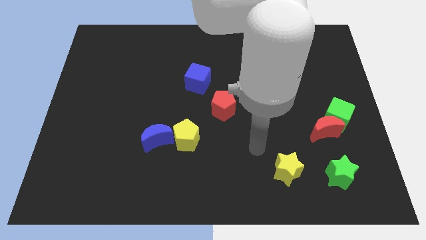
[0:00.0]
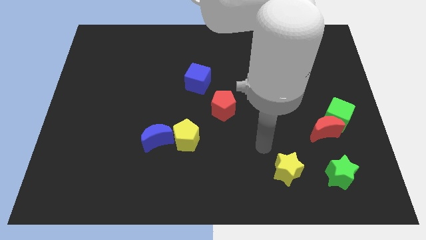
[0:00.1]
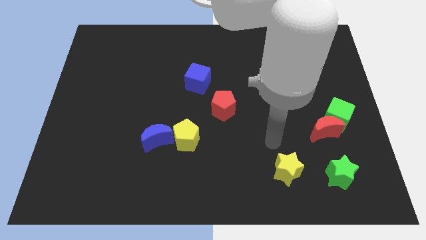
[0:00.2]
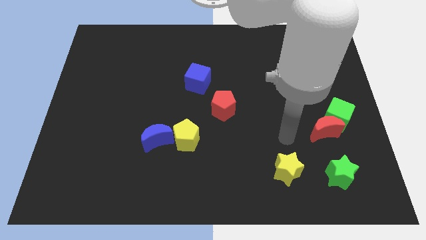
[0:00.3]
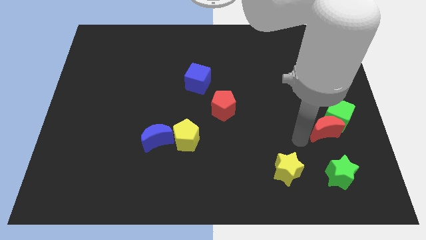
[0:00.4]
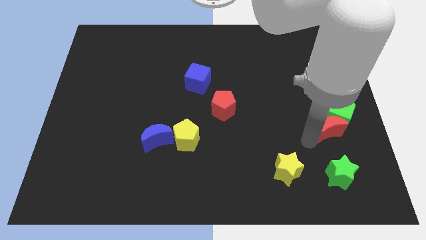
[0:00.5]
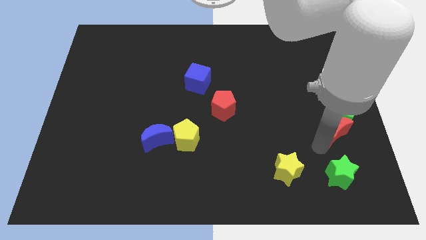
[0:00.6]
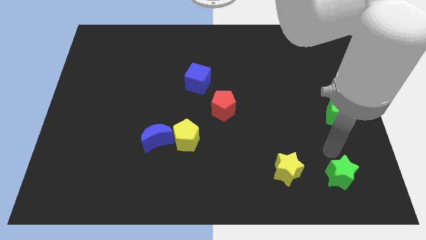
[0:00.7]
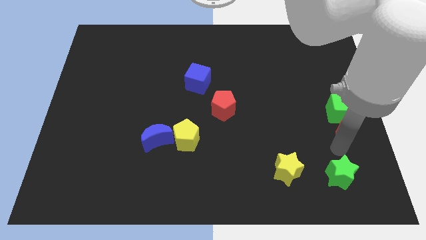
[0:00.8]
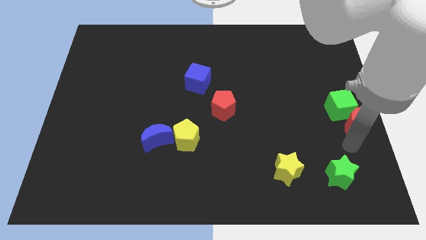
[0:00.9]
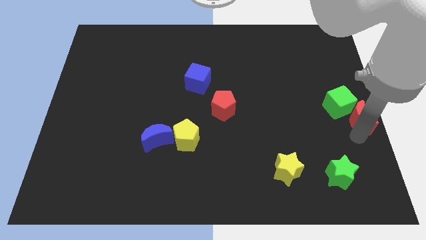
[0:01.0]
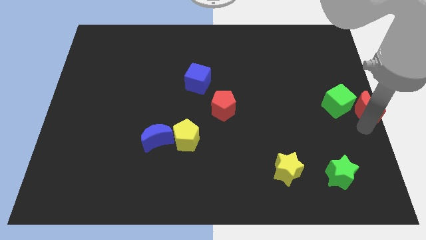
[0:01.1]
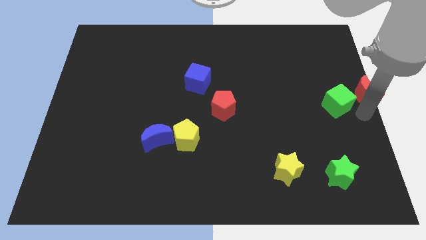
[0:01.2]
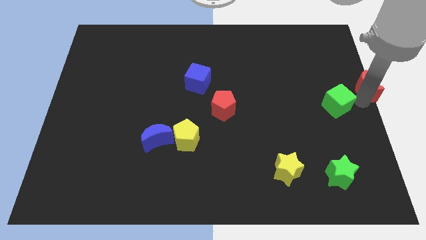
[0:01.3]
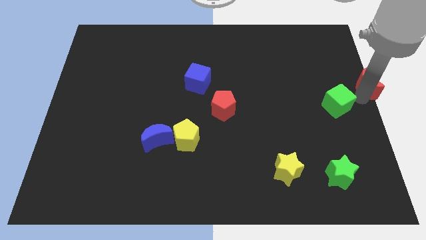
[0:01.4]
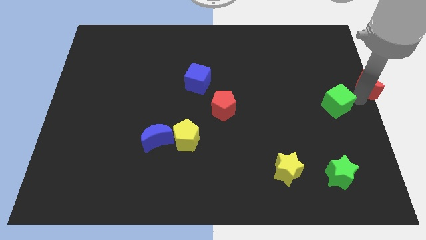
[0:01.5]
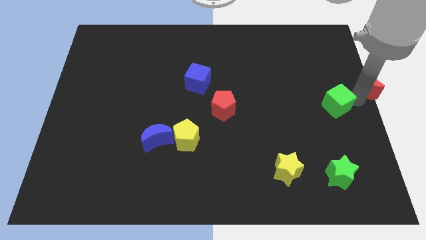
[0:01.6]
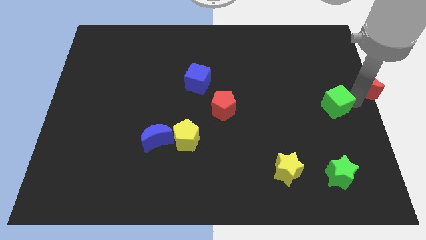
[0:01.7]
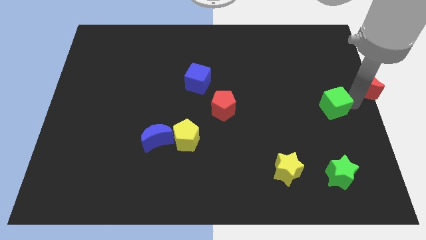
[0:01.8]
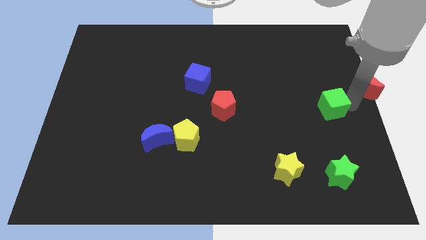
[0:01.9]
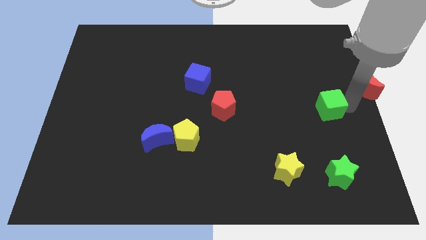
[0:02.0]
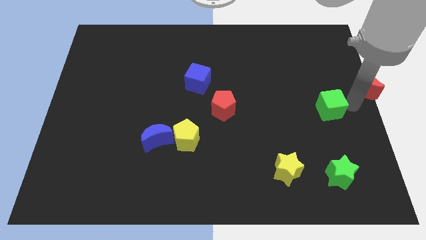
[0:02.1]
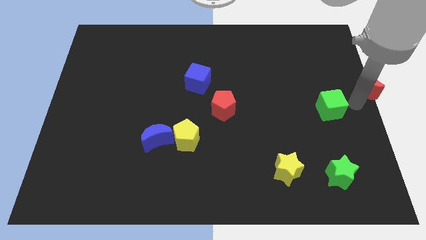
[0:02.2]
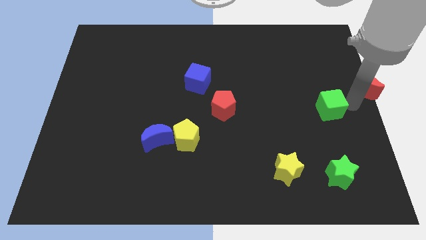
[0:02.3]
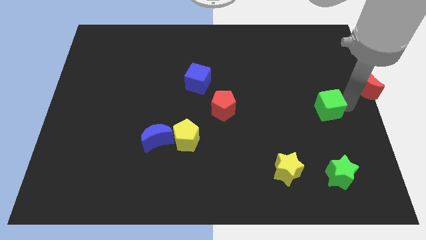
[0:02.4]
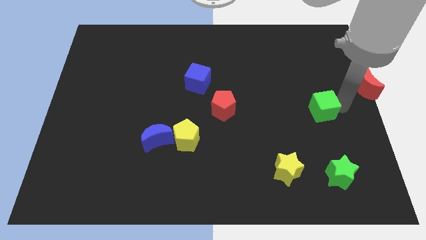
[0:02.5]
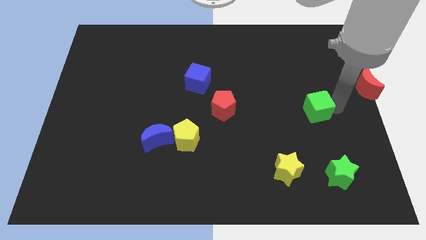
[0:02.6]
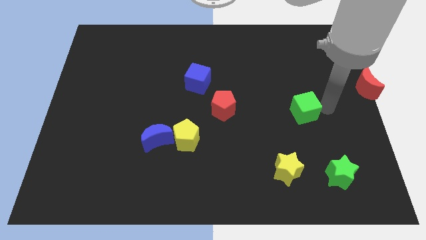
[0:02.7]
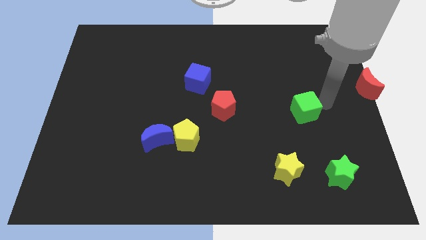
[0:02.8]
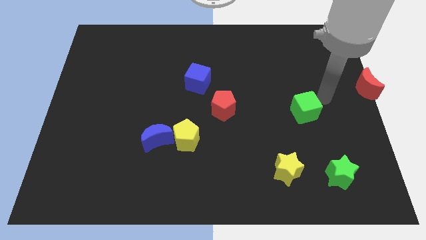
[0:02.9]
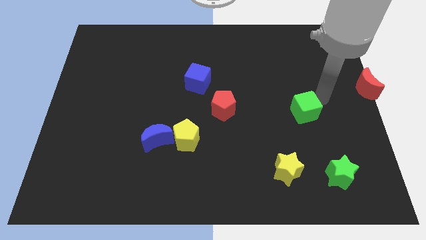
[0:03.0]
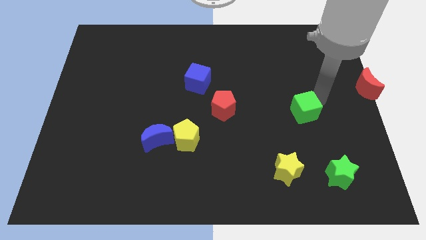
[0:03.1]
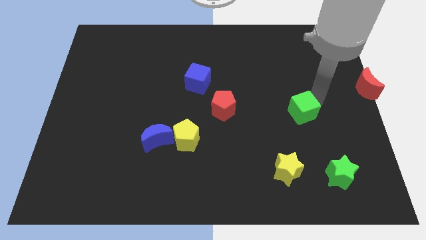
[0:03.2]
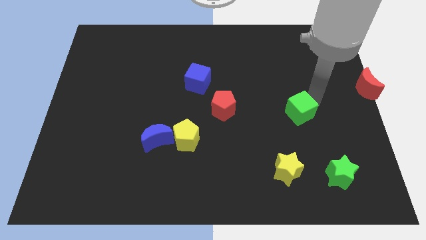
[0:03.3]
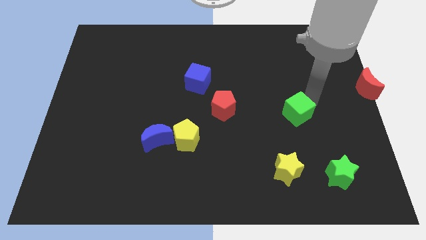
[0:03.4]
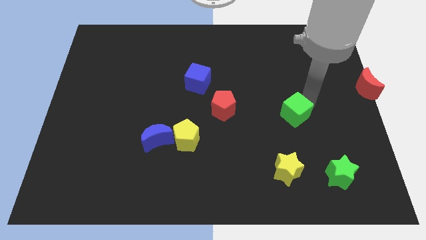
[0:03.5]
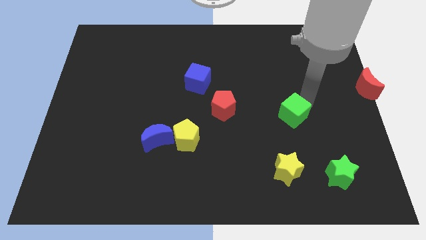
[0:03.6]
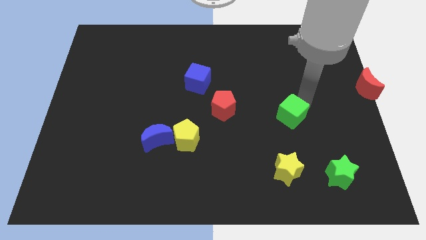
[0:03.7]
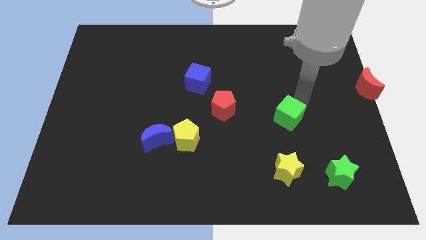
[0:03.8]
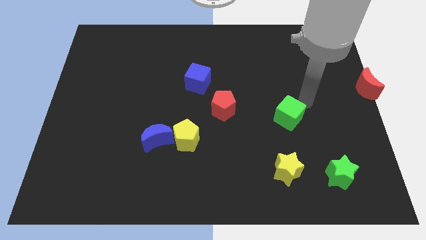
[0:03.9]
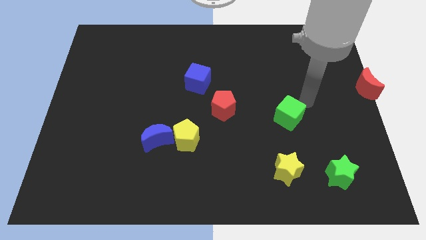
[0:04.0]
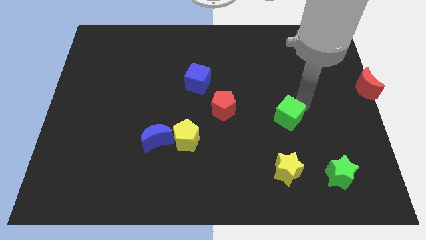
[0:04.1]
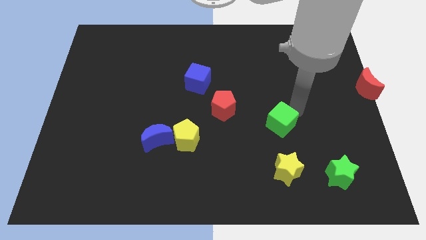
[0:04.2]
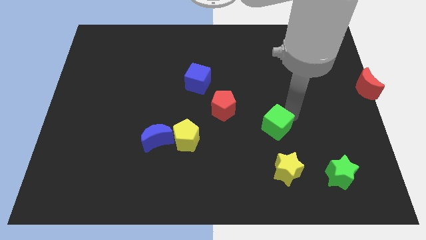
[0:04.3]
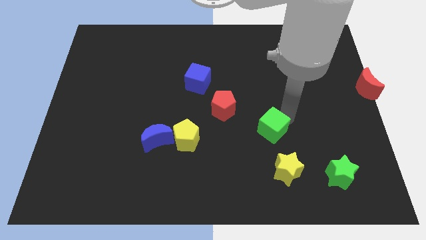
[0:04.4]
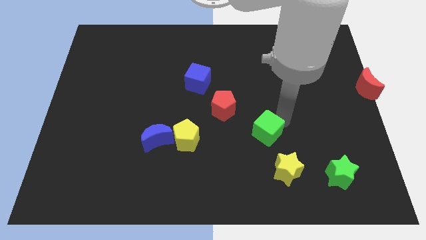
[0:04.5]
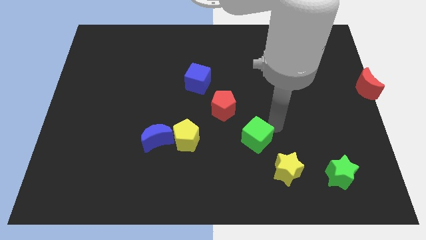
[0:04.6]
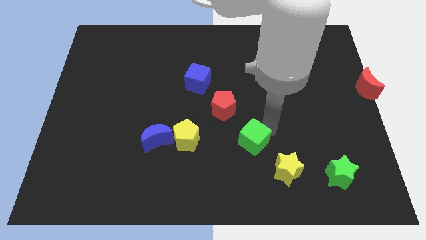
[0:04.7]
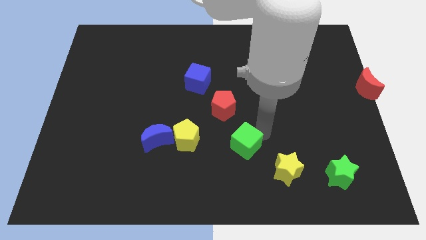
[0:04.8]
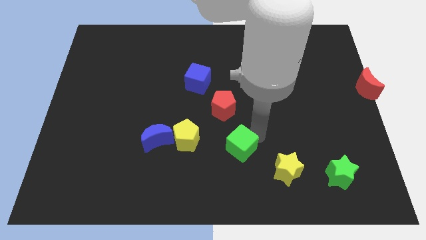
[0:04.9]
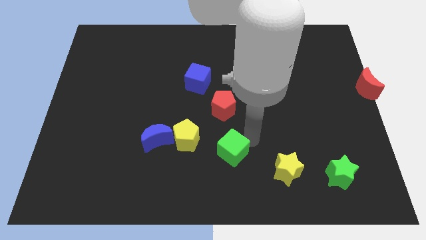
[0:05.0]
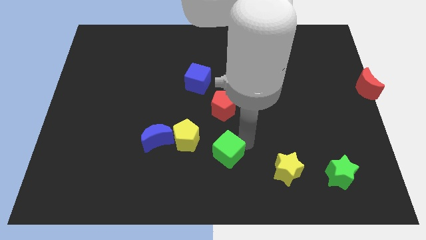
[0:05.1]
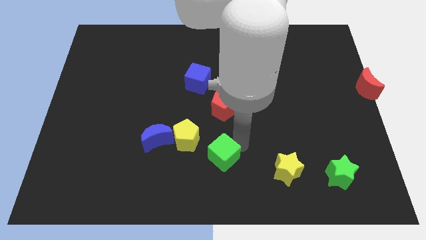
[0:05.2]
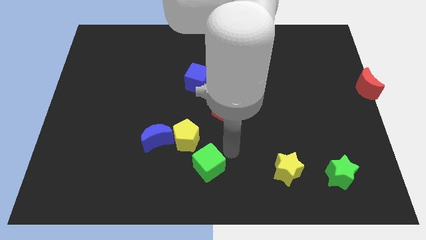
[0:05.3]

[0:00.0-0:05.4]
slide the green cube to the bottom side of the yellow pentagon

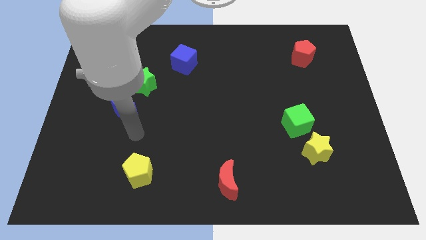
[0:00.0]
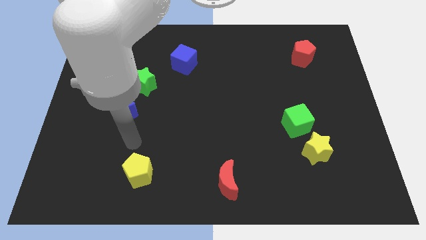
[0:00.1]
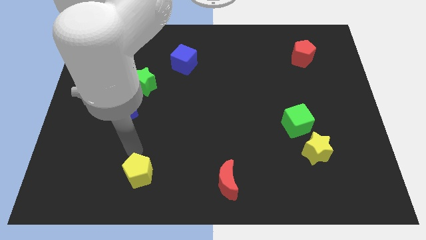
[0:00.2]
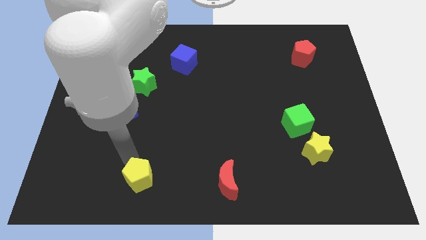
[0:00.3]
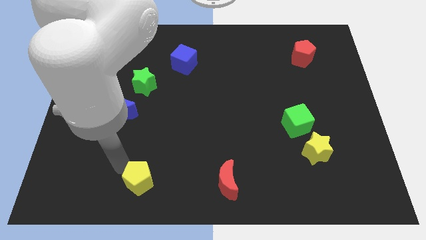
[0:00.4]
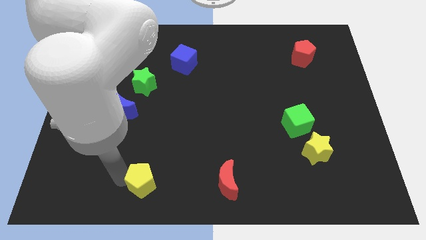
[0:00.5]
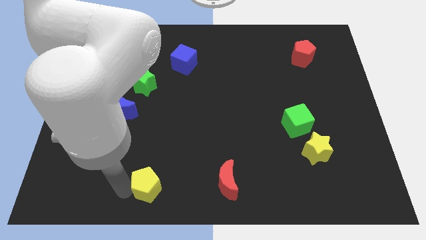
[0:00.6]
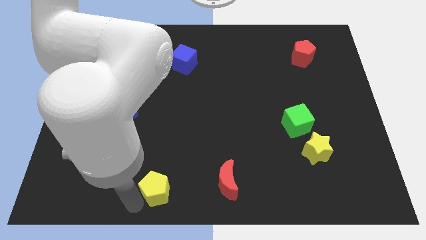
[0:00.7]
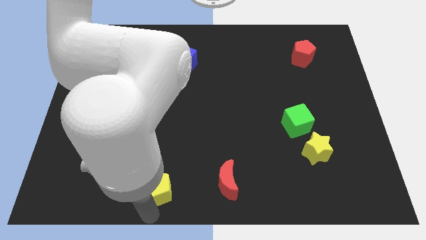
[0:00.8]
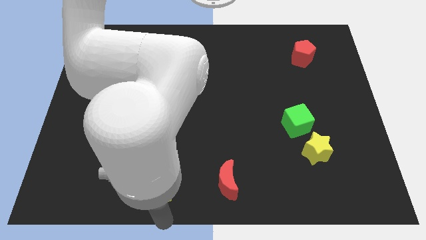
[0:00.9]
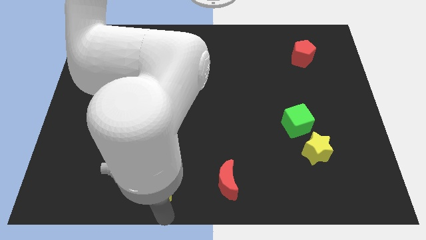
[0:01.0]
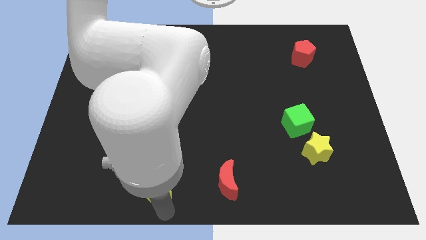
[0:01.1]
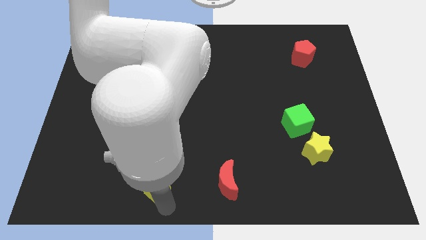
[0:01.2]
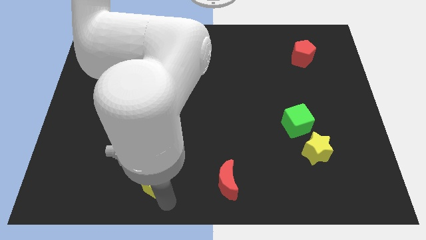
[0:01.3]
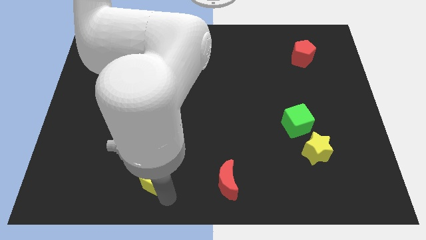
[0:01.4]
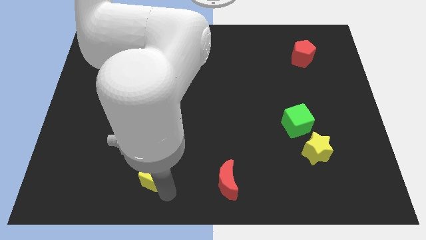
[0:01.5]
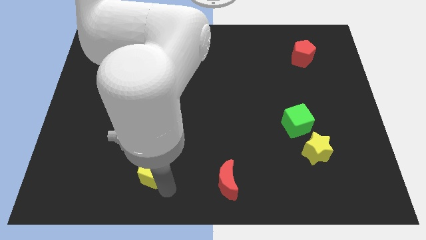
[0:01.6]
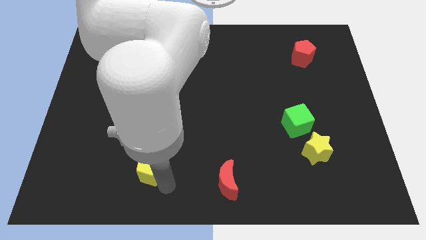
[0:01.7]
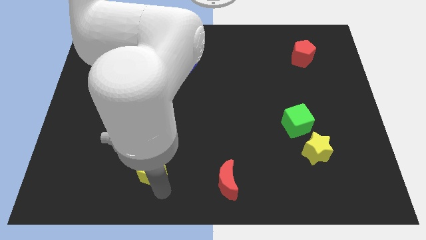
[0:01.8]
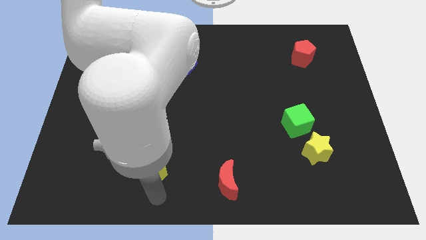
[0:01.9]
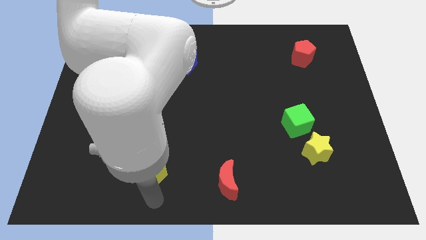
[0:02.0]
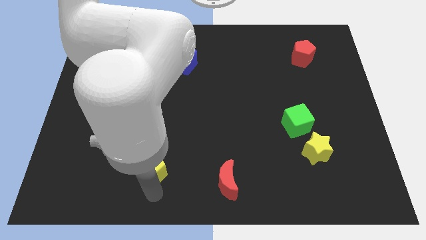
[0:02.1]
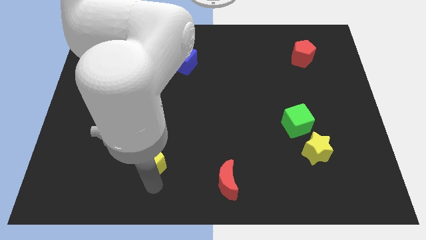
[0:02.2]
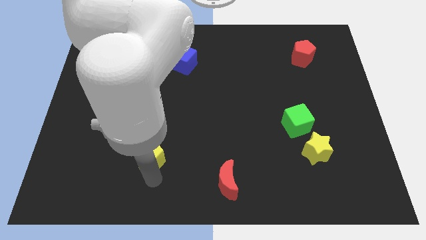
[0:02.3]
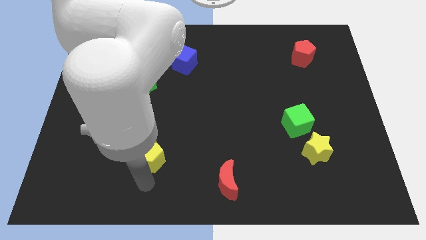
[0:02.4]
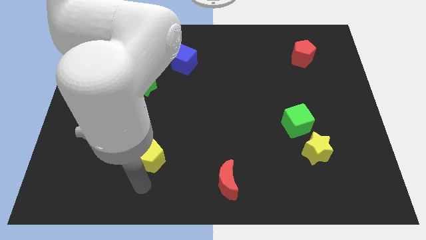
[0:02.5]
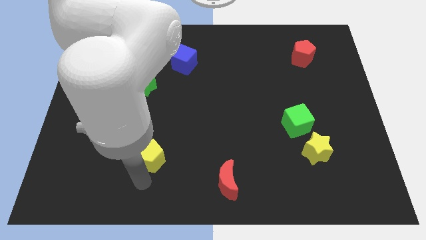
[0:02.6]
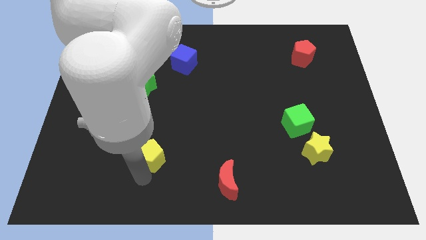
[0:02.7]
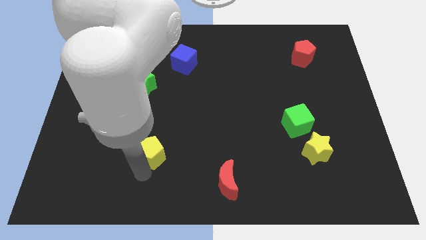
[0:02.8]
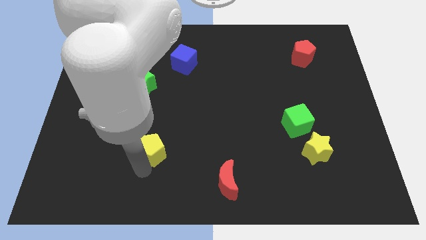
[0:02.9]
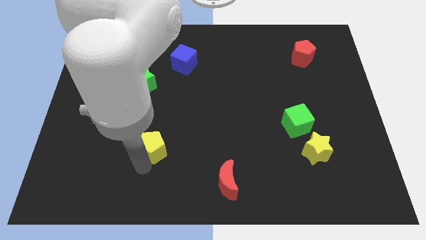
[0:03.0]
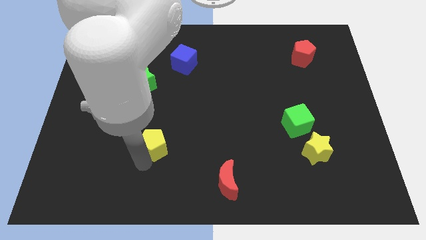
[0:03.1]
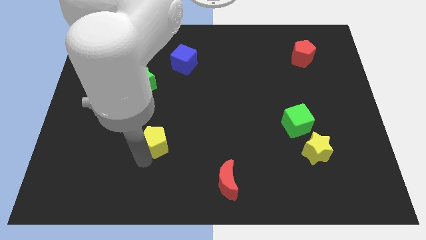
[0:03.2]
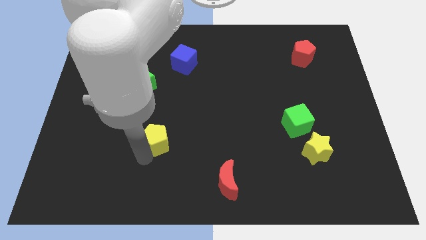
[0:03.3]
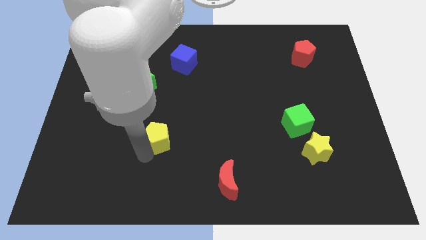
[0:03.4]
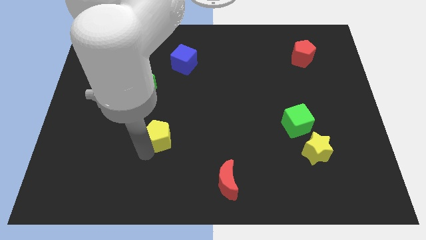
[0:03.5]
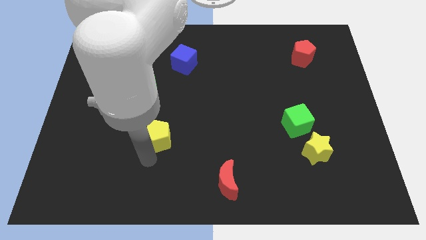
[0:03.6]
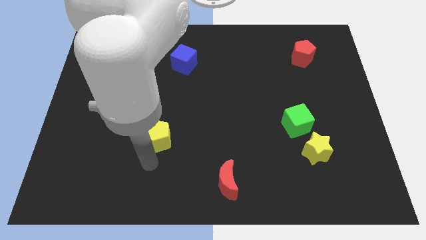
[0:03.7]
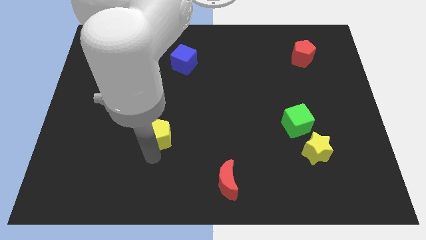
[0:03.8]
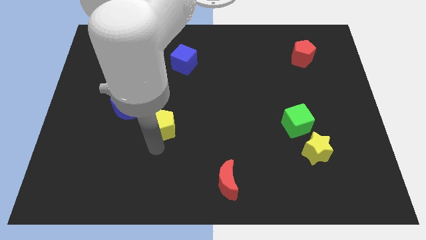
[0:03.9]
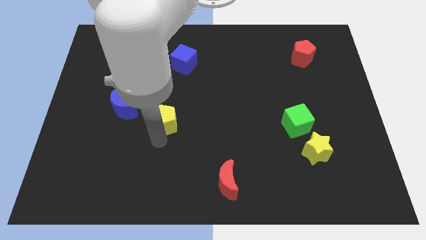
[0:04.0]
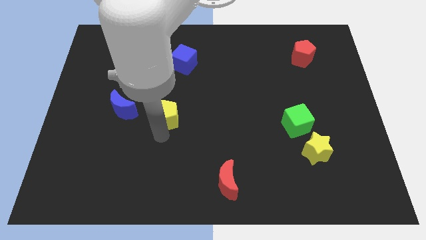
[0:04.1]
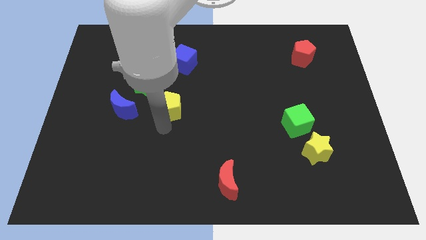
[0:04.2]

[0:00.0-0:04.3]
push the yellow pentagon to the bottom side of the blue cube
